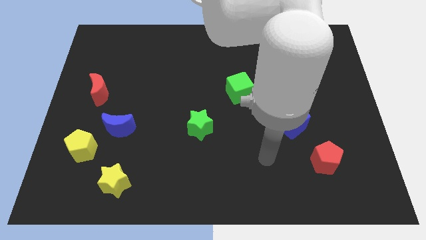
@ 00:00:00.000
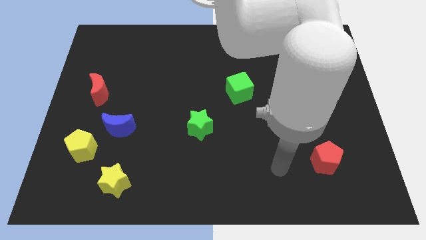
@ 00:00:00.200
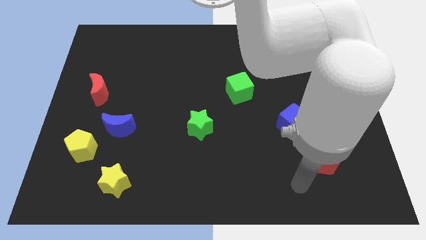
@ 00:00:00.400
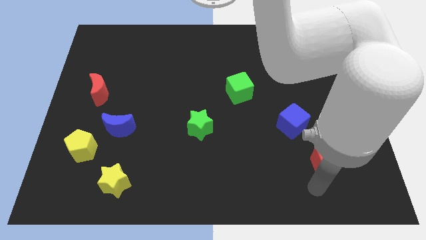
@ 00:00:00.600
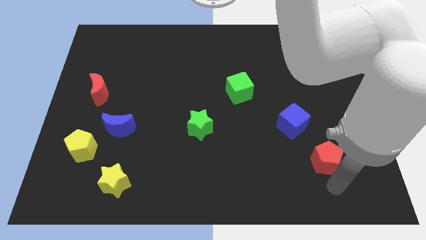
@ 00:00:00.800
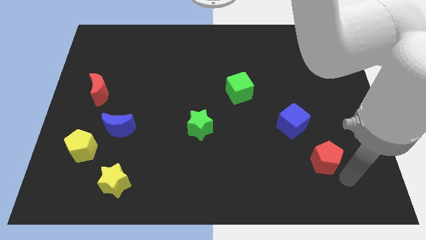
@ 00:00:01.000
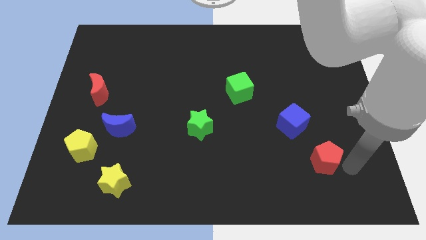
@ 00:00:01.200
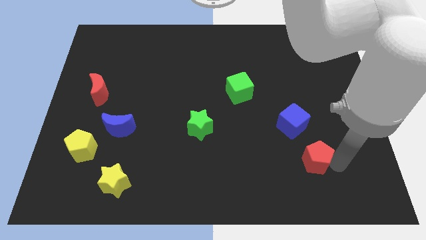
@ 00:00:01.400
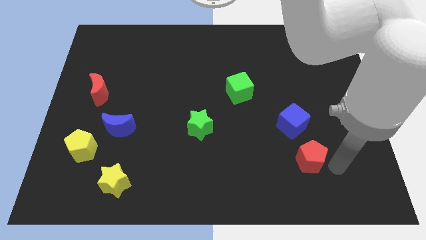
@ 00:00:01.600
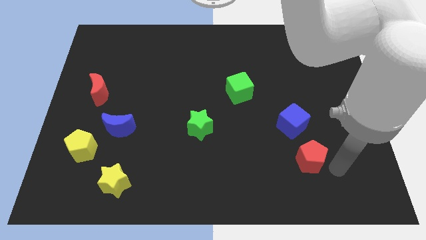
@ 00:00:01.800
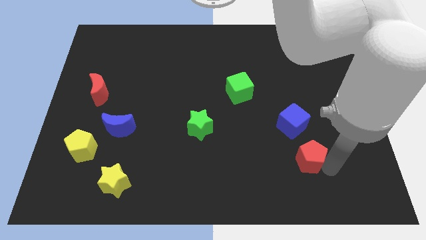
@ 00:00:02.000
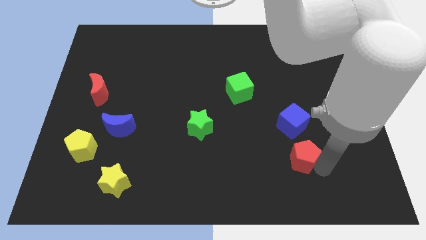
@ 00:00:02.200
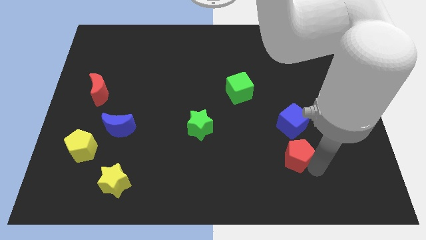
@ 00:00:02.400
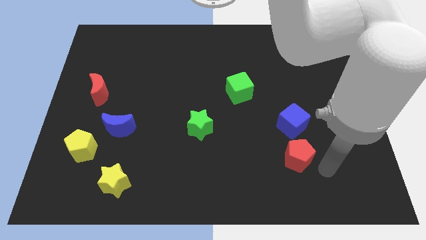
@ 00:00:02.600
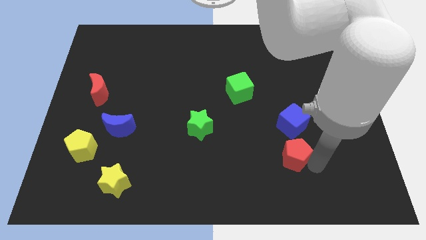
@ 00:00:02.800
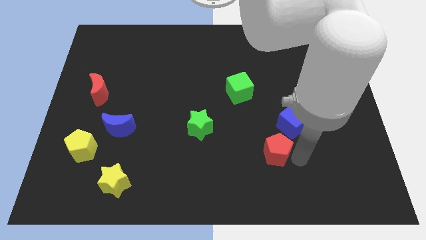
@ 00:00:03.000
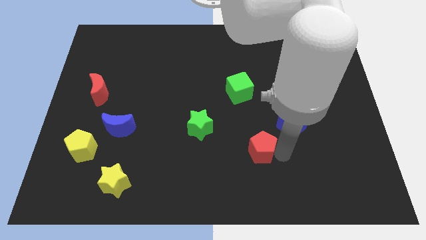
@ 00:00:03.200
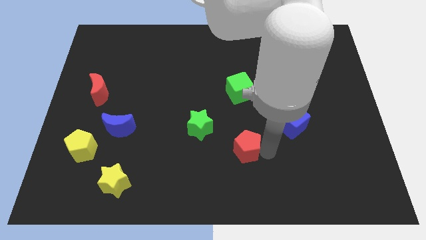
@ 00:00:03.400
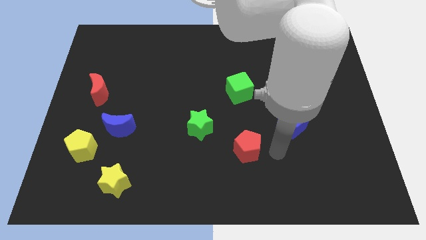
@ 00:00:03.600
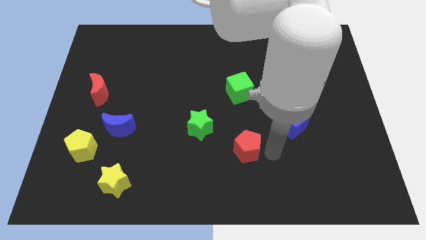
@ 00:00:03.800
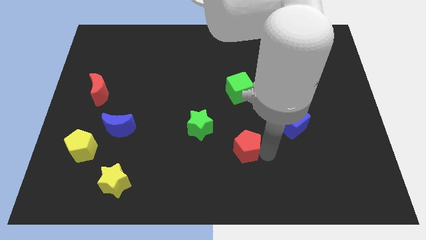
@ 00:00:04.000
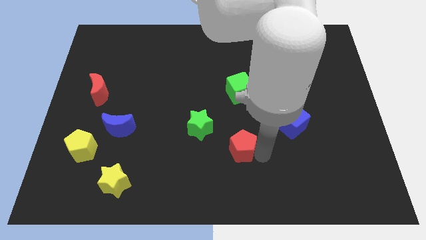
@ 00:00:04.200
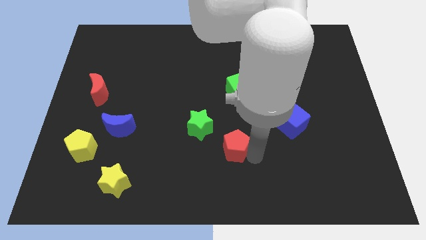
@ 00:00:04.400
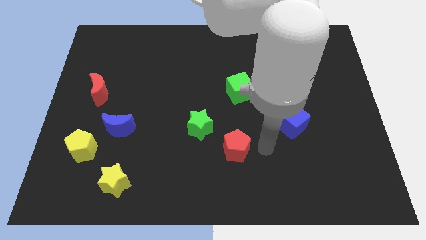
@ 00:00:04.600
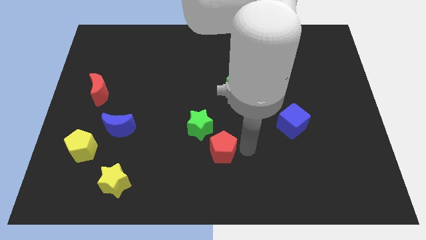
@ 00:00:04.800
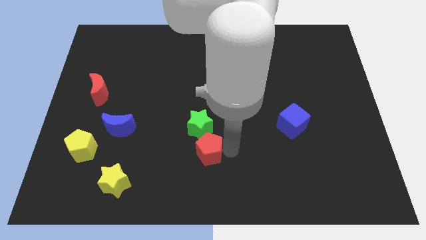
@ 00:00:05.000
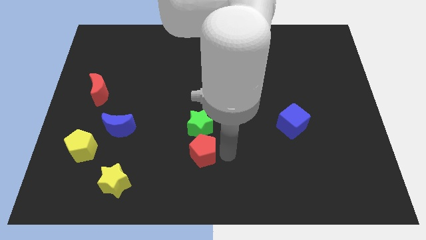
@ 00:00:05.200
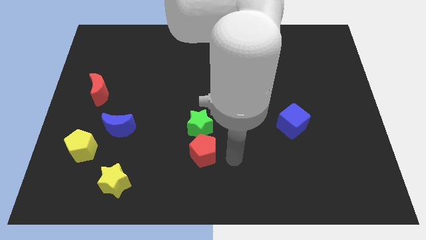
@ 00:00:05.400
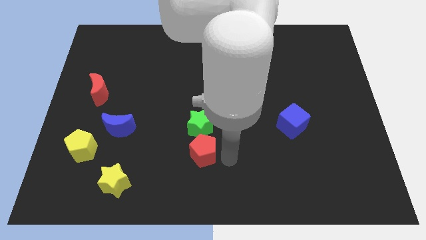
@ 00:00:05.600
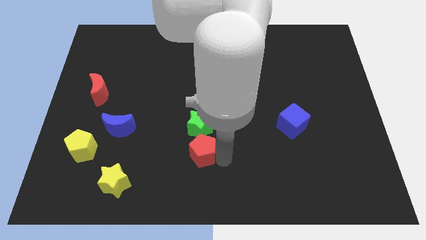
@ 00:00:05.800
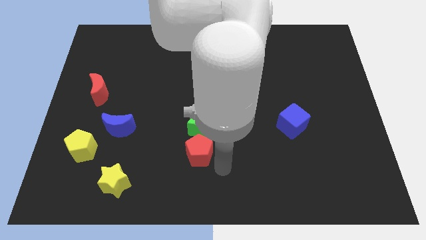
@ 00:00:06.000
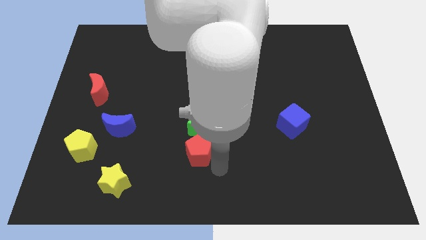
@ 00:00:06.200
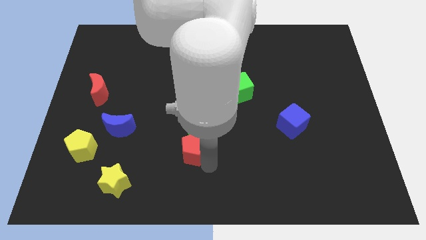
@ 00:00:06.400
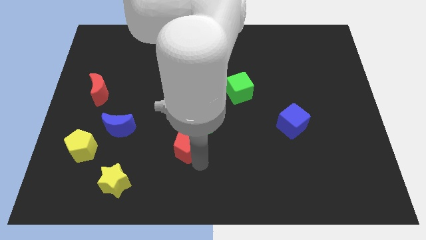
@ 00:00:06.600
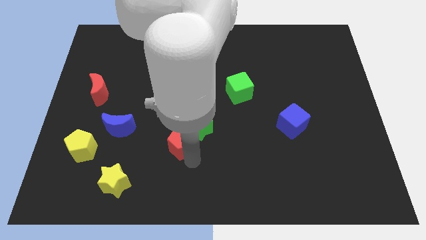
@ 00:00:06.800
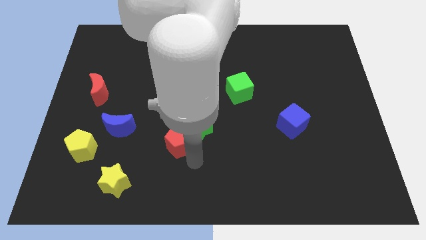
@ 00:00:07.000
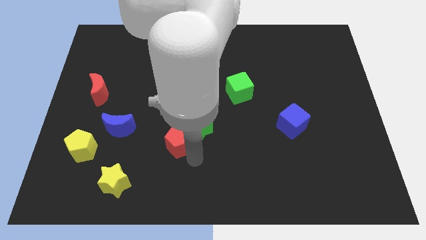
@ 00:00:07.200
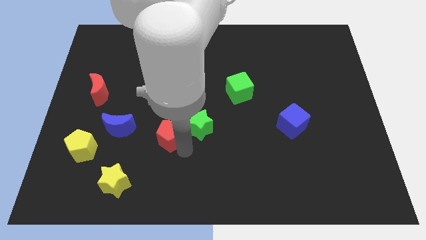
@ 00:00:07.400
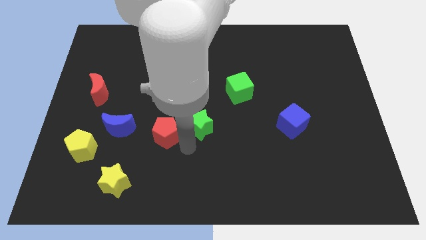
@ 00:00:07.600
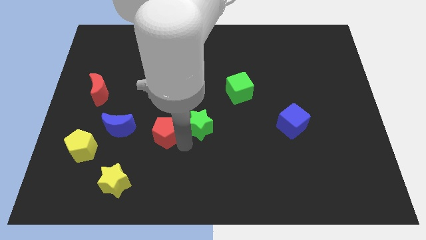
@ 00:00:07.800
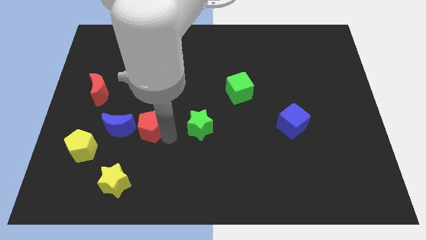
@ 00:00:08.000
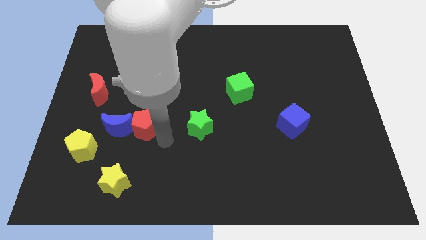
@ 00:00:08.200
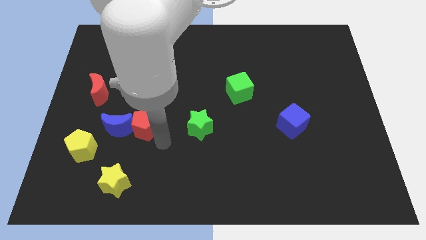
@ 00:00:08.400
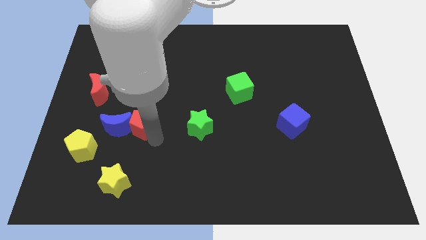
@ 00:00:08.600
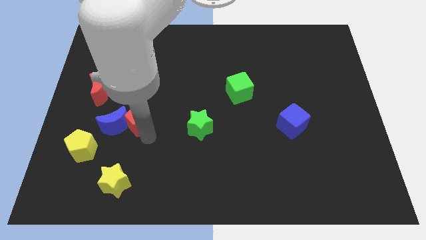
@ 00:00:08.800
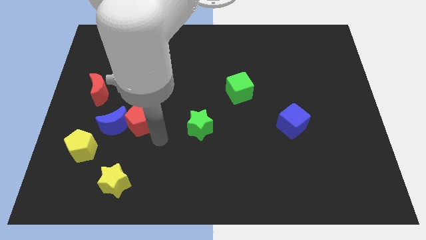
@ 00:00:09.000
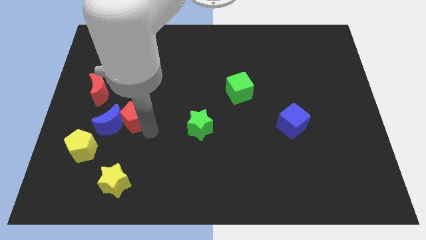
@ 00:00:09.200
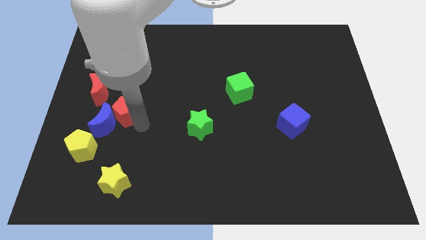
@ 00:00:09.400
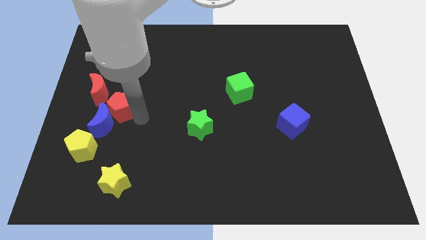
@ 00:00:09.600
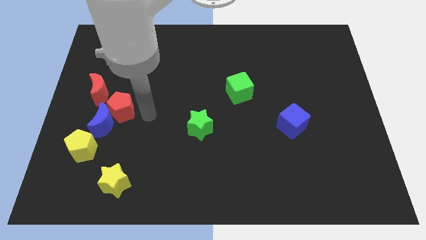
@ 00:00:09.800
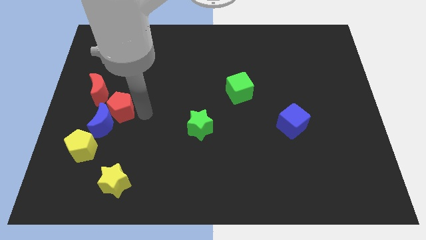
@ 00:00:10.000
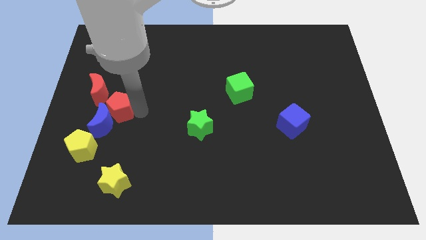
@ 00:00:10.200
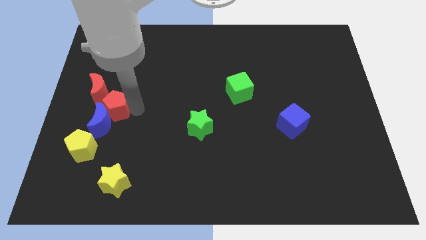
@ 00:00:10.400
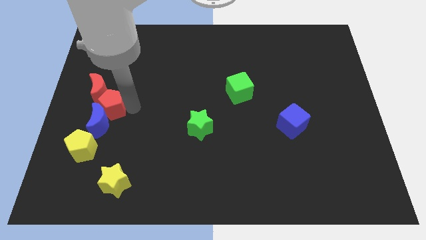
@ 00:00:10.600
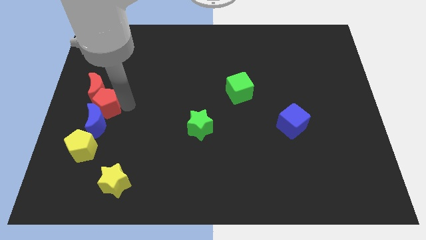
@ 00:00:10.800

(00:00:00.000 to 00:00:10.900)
push the red pentagon to the left side of the board
